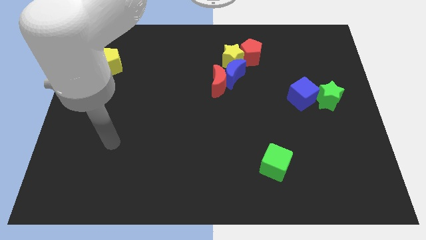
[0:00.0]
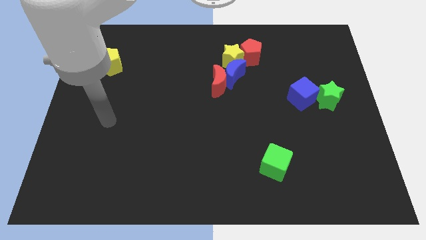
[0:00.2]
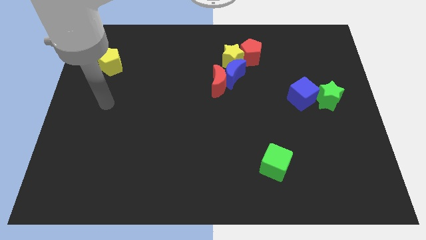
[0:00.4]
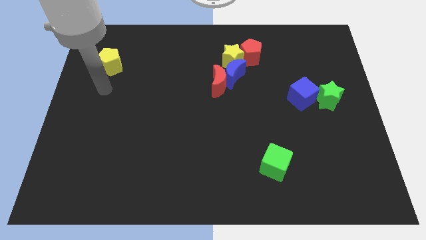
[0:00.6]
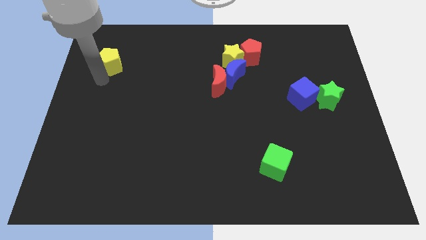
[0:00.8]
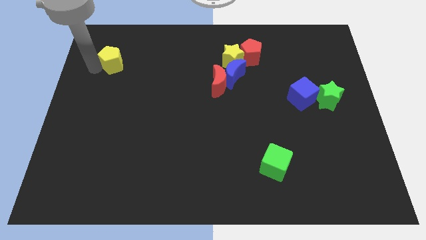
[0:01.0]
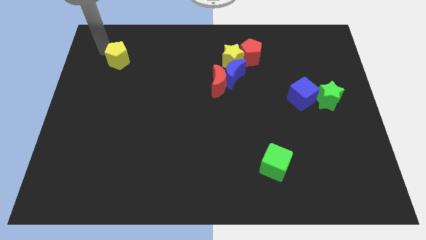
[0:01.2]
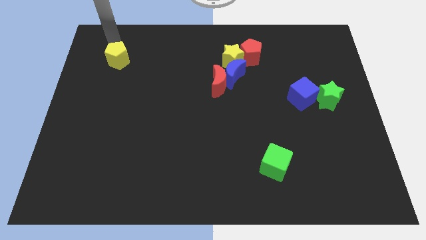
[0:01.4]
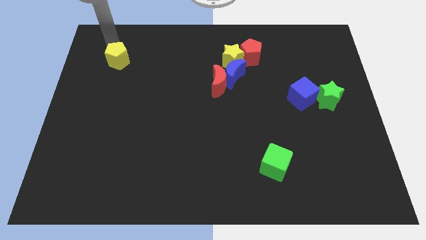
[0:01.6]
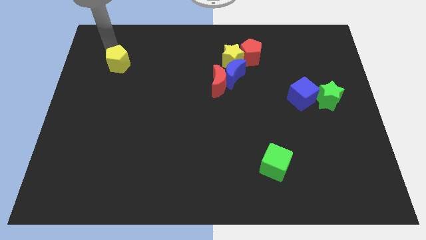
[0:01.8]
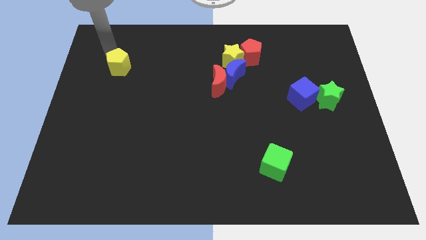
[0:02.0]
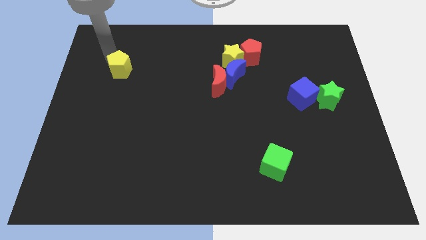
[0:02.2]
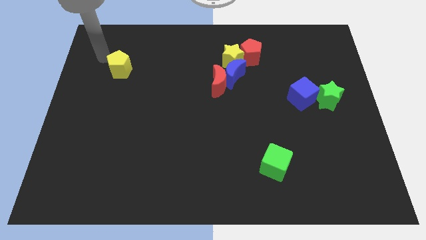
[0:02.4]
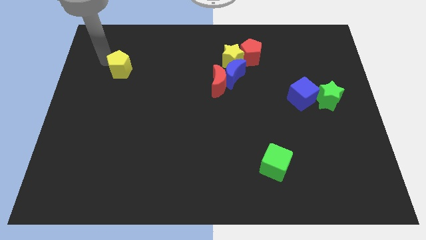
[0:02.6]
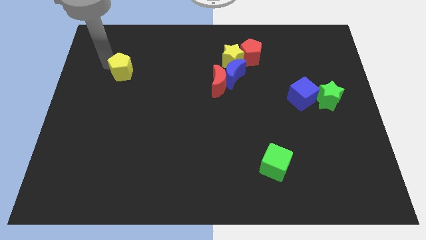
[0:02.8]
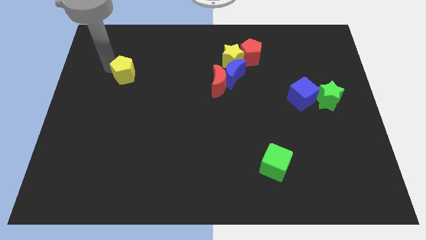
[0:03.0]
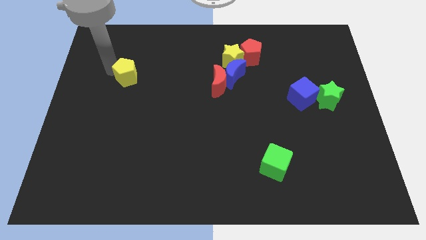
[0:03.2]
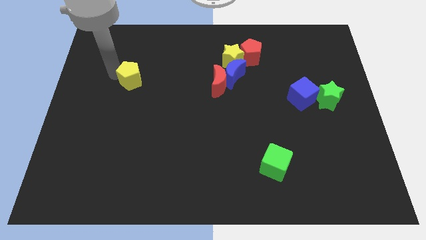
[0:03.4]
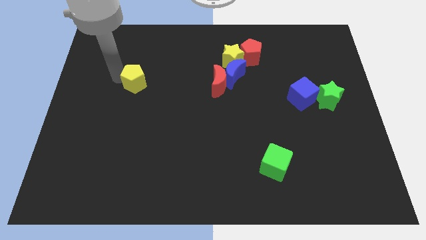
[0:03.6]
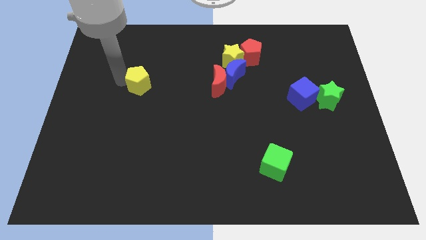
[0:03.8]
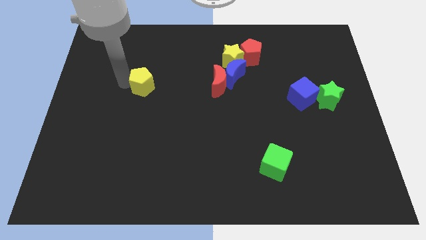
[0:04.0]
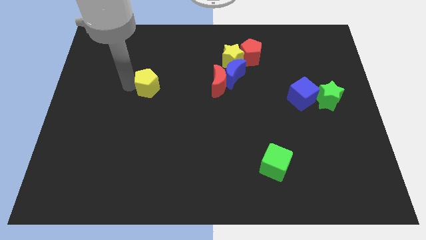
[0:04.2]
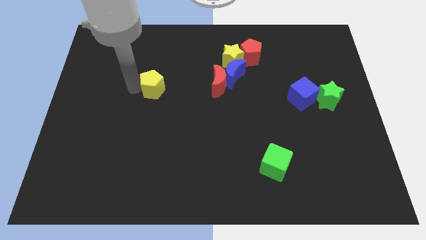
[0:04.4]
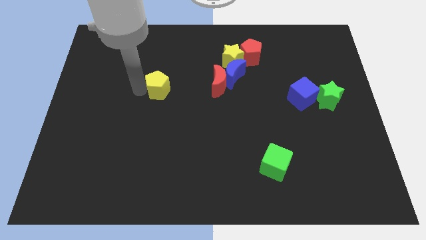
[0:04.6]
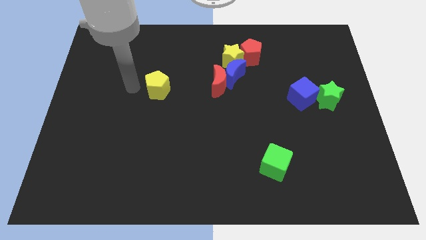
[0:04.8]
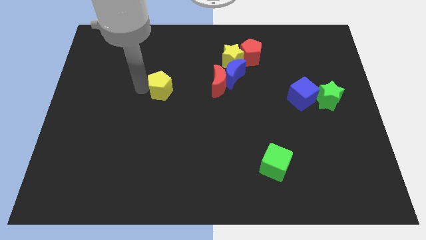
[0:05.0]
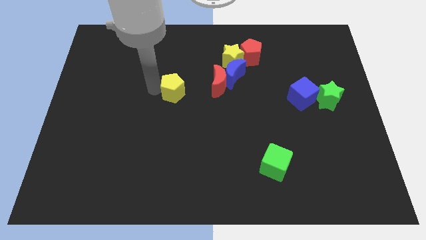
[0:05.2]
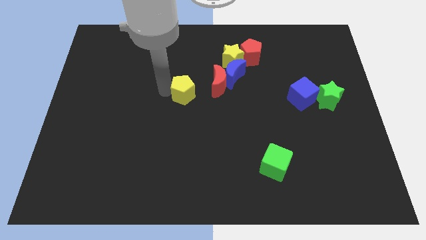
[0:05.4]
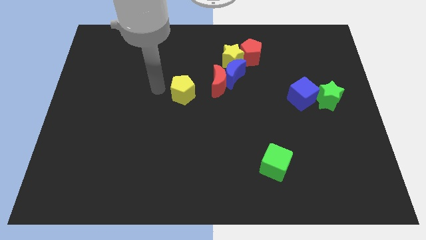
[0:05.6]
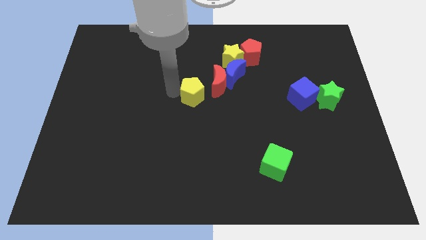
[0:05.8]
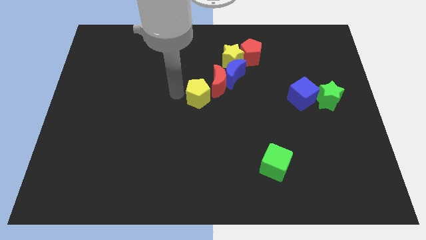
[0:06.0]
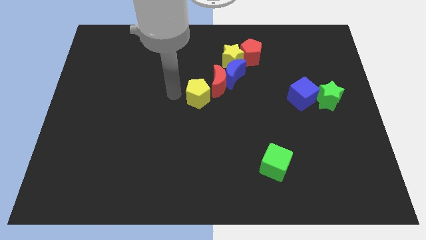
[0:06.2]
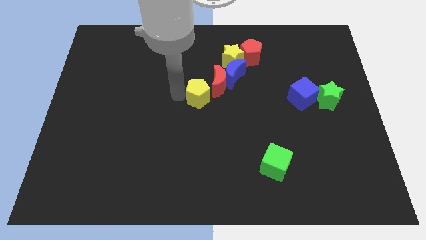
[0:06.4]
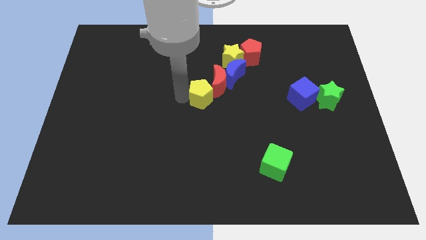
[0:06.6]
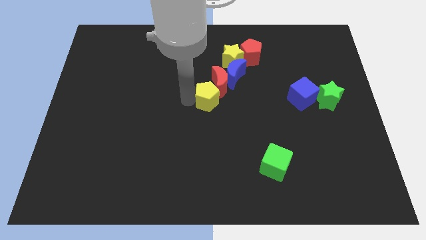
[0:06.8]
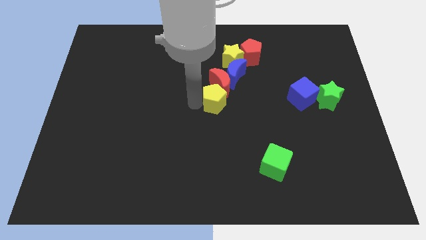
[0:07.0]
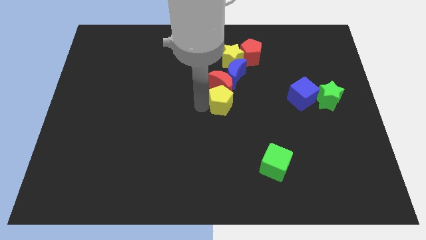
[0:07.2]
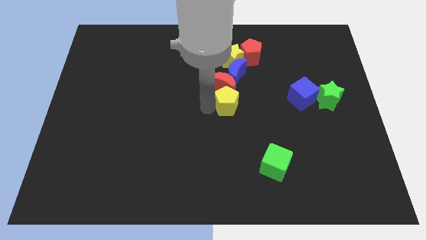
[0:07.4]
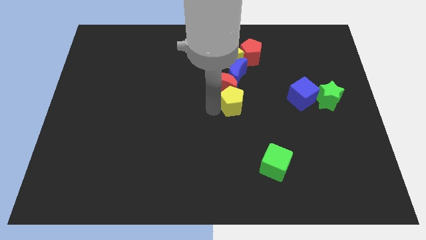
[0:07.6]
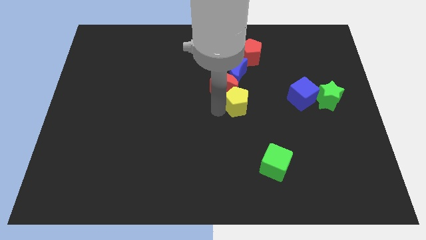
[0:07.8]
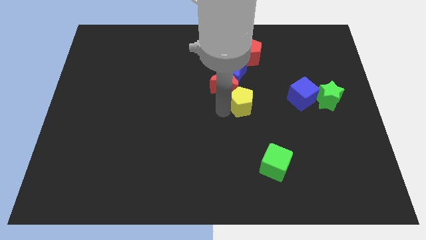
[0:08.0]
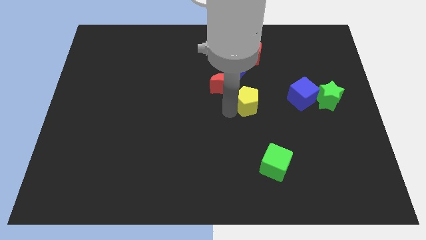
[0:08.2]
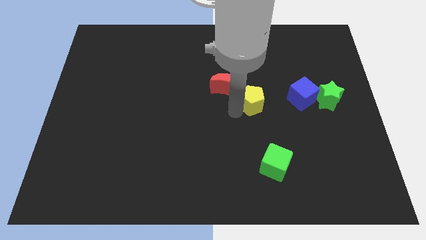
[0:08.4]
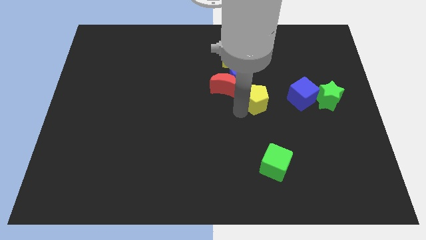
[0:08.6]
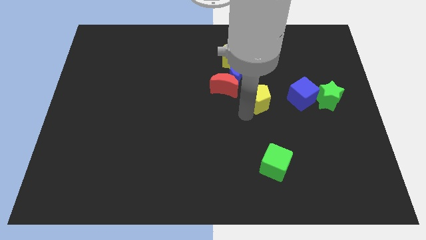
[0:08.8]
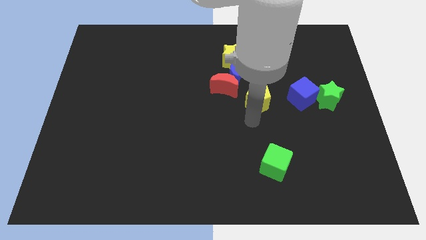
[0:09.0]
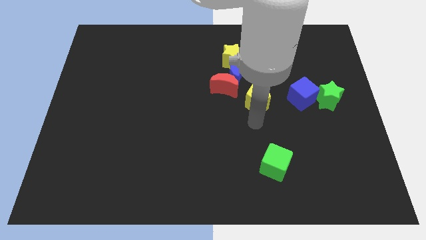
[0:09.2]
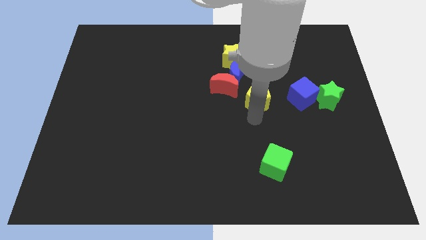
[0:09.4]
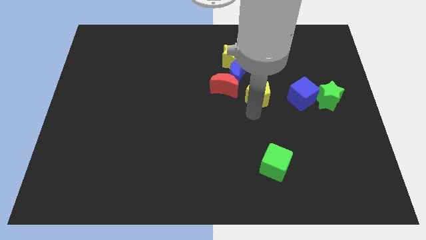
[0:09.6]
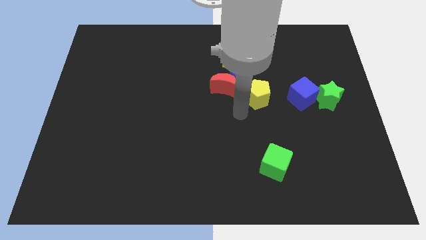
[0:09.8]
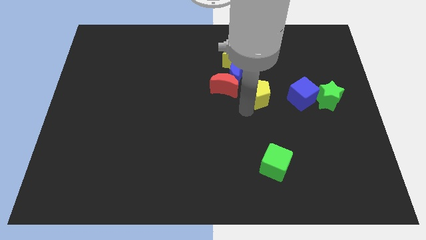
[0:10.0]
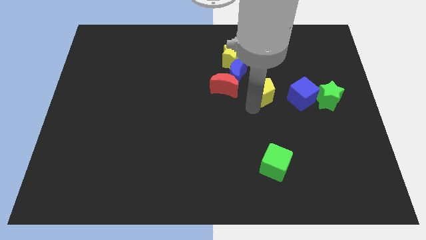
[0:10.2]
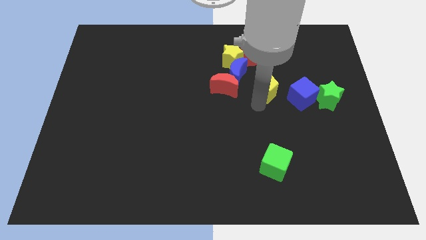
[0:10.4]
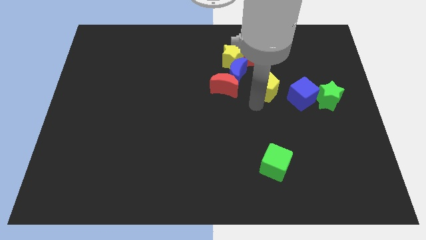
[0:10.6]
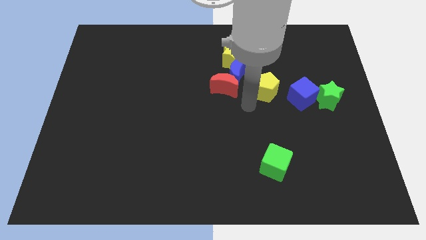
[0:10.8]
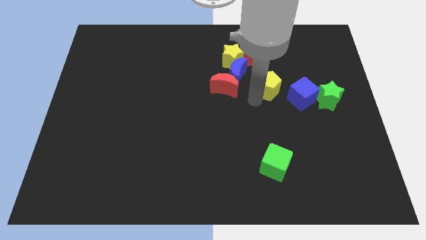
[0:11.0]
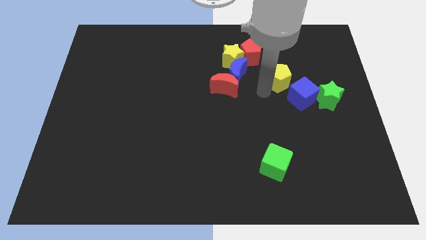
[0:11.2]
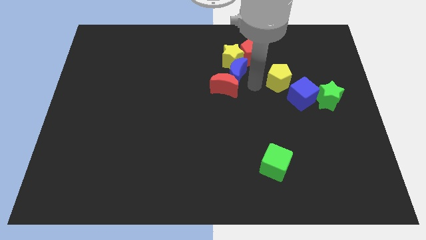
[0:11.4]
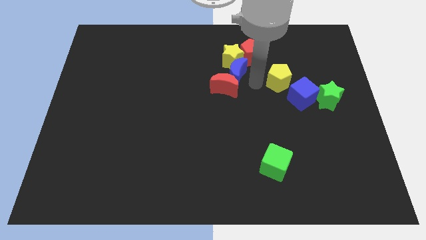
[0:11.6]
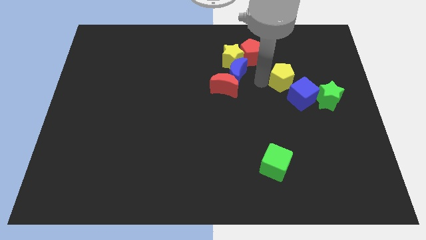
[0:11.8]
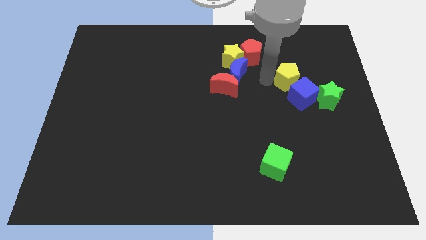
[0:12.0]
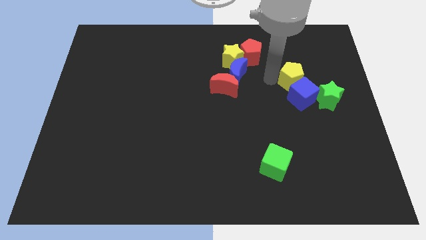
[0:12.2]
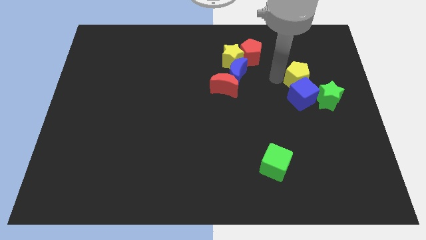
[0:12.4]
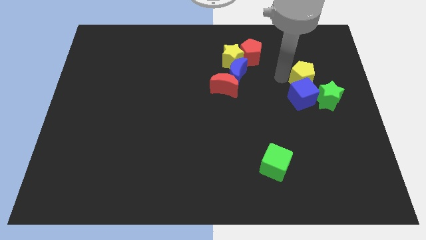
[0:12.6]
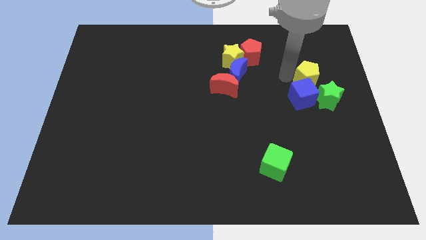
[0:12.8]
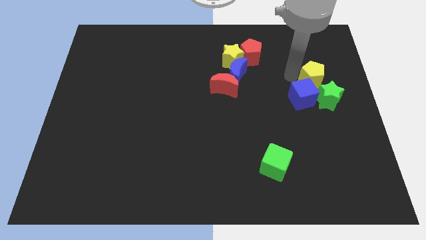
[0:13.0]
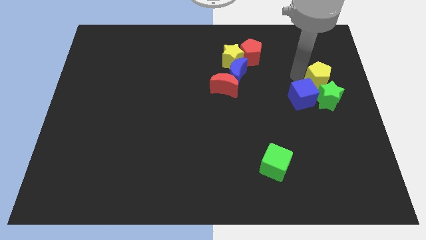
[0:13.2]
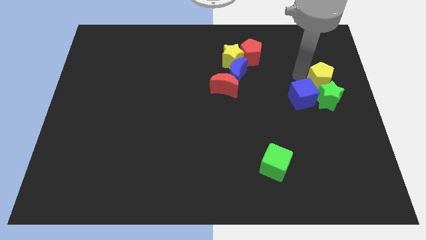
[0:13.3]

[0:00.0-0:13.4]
put the yellow pentagon to the right side
